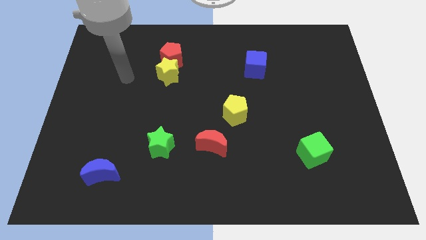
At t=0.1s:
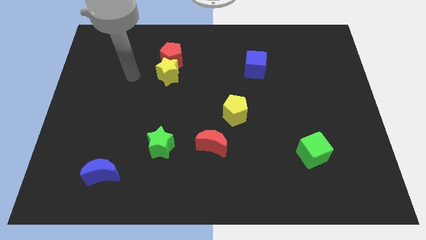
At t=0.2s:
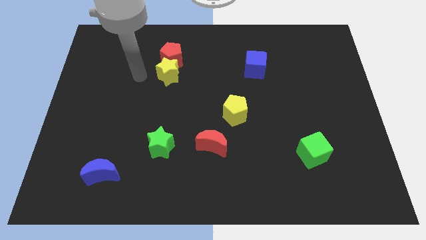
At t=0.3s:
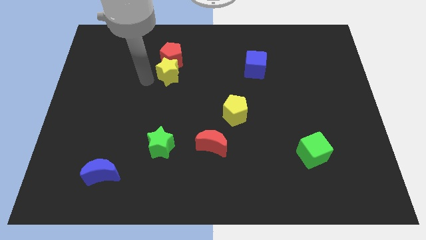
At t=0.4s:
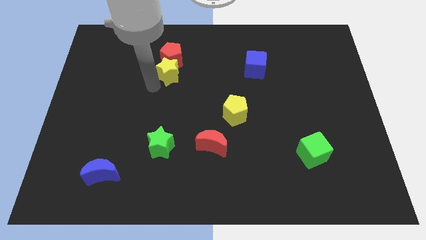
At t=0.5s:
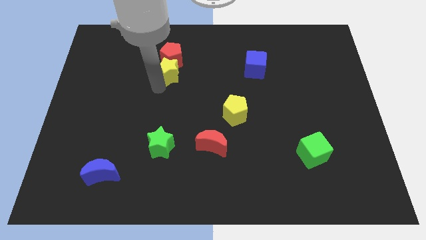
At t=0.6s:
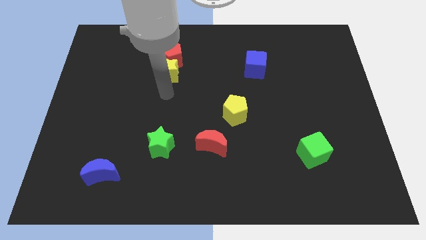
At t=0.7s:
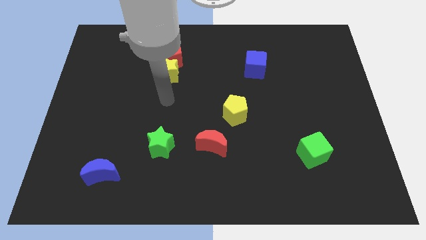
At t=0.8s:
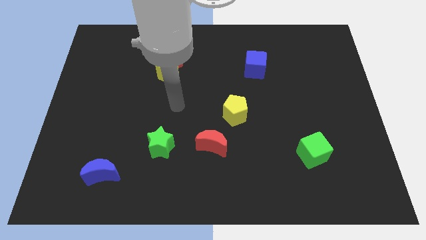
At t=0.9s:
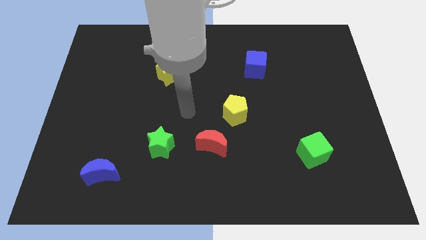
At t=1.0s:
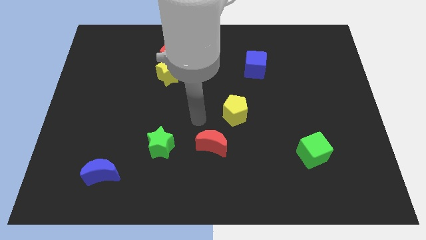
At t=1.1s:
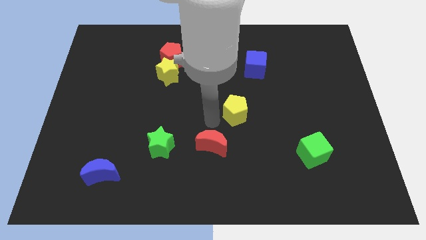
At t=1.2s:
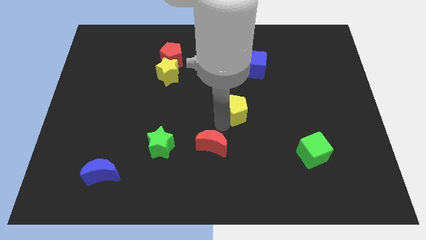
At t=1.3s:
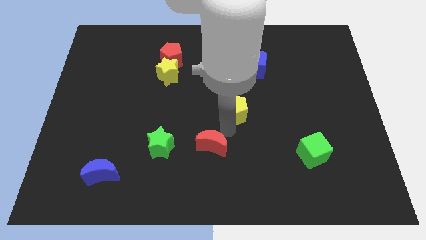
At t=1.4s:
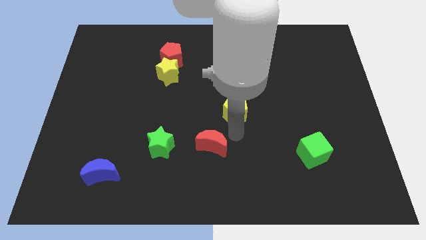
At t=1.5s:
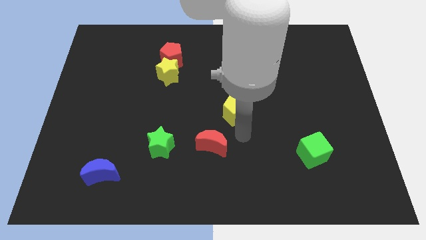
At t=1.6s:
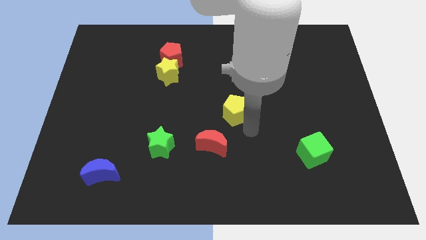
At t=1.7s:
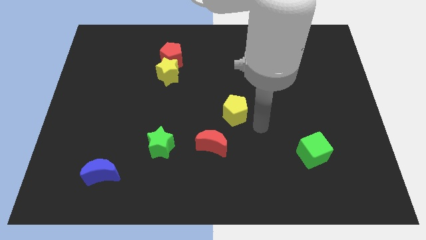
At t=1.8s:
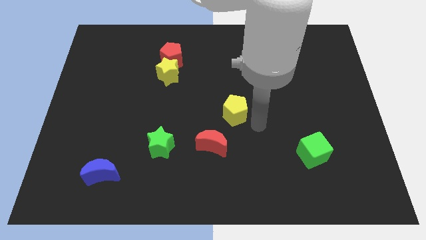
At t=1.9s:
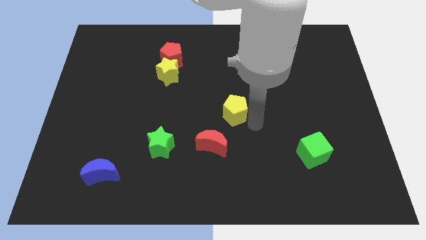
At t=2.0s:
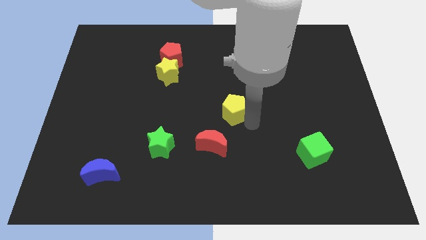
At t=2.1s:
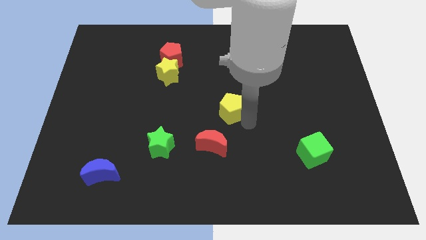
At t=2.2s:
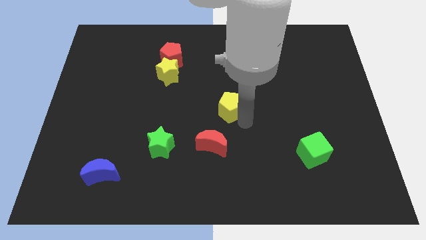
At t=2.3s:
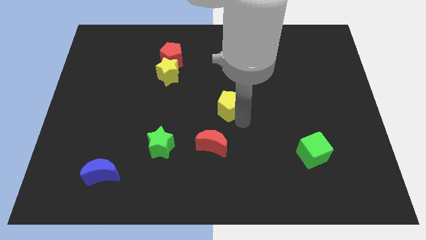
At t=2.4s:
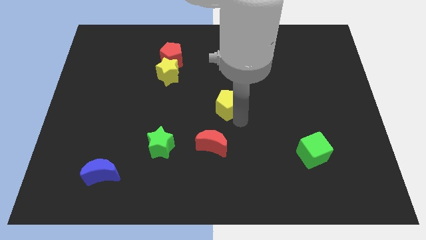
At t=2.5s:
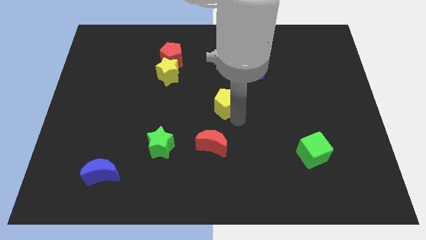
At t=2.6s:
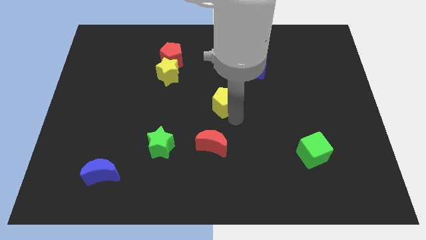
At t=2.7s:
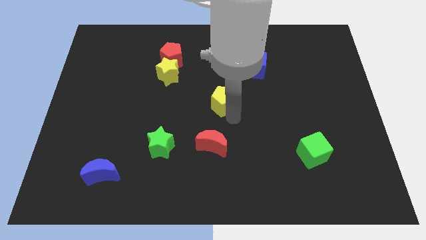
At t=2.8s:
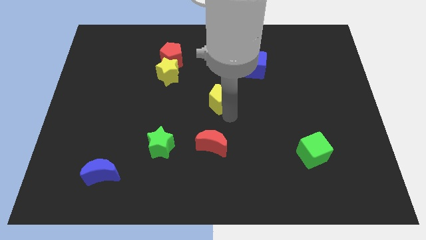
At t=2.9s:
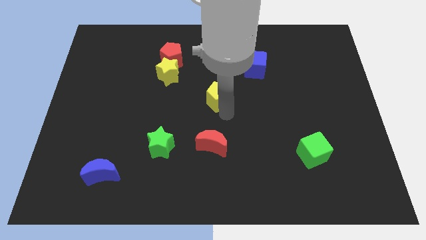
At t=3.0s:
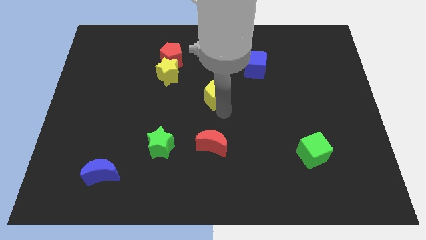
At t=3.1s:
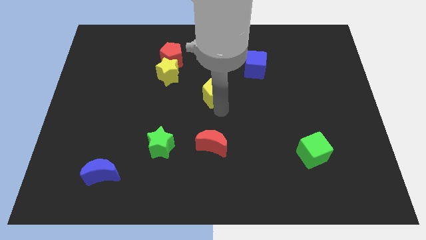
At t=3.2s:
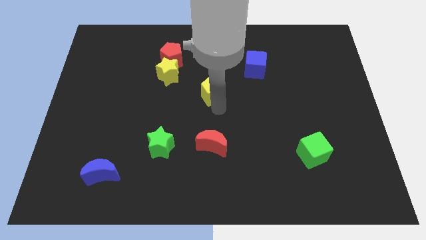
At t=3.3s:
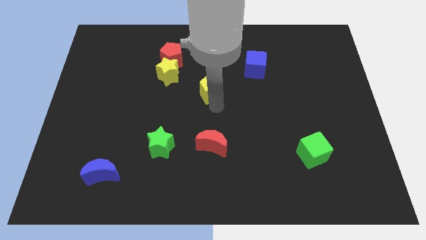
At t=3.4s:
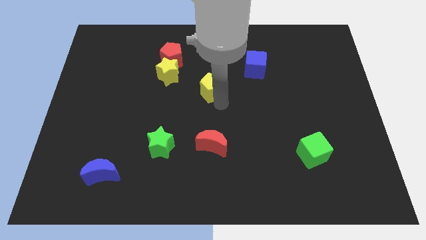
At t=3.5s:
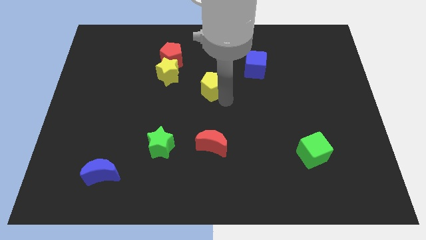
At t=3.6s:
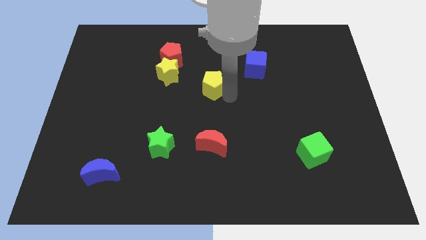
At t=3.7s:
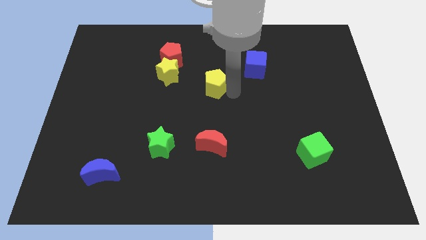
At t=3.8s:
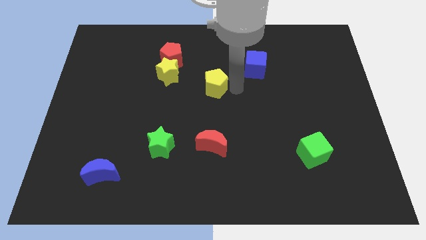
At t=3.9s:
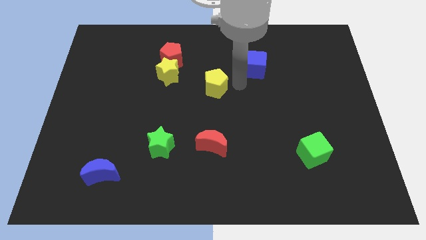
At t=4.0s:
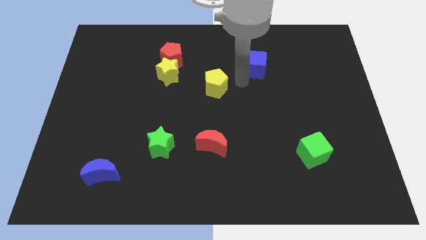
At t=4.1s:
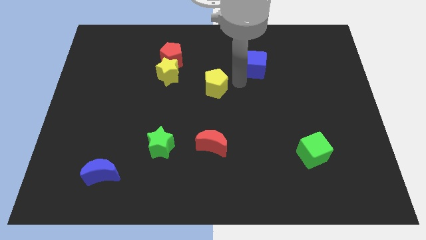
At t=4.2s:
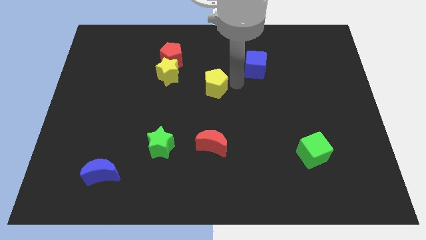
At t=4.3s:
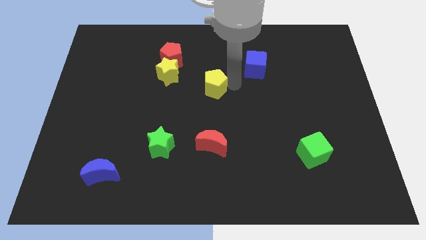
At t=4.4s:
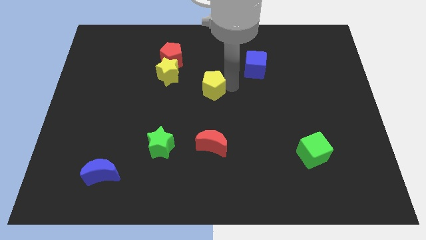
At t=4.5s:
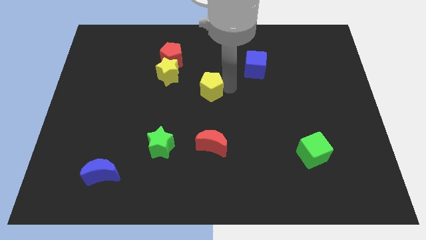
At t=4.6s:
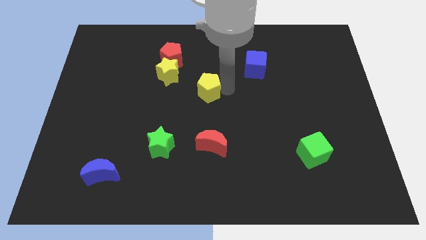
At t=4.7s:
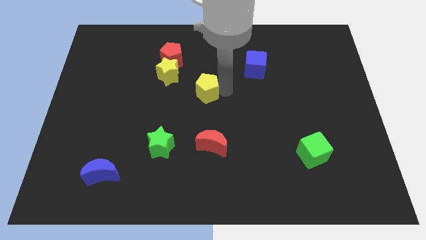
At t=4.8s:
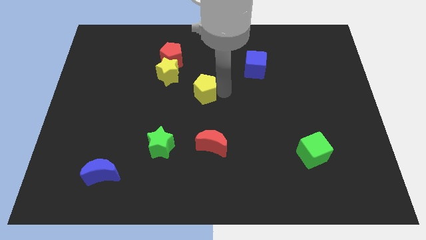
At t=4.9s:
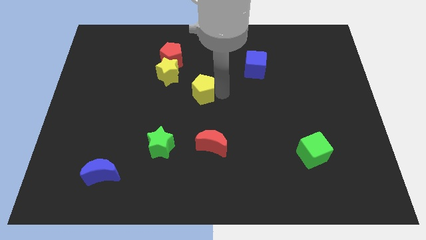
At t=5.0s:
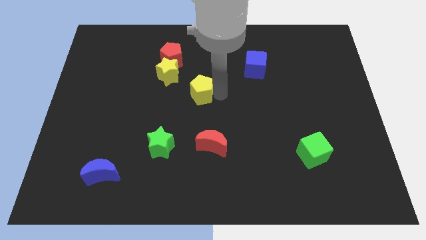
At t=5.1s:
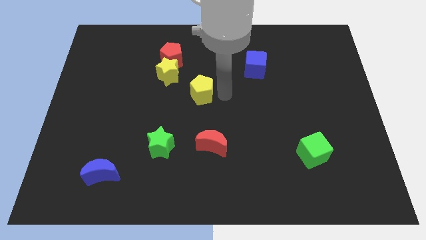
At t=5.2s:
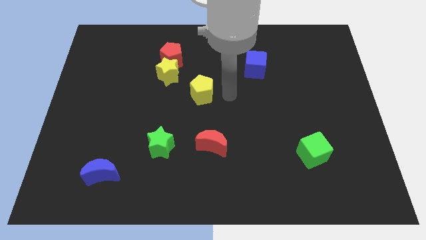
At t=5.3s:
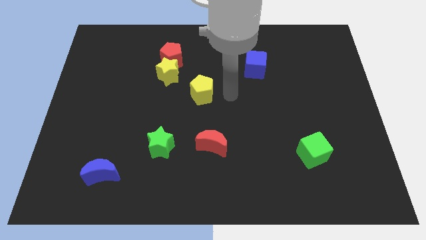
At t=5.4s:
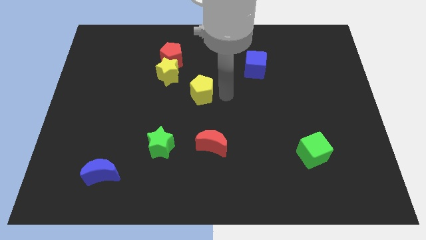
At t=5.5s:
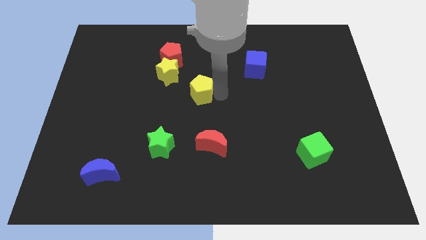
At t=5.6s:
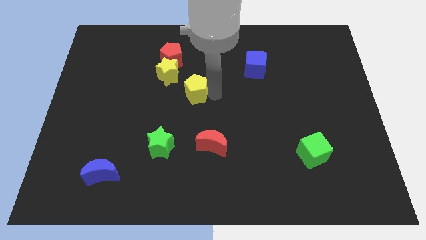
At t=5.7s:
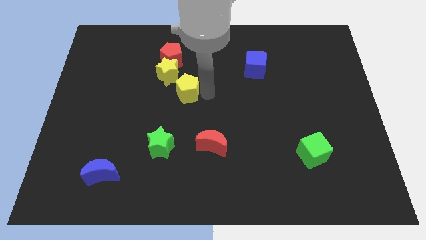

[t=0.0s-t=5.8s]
slide the yellow pentagon to the bottom of the red pentagon

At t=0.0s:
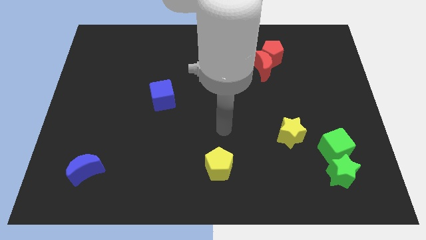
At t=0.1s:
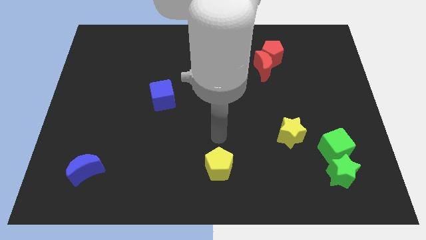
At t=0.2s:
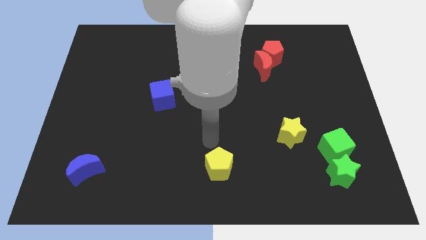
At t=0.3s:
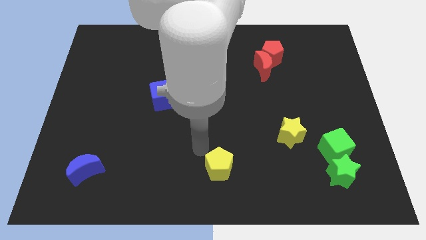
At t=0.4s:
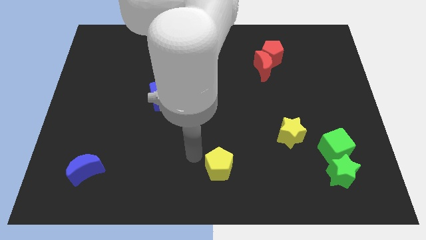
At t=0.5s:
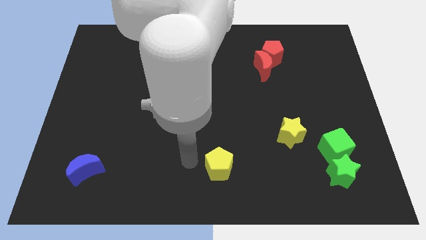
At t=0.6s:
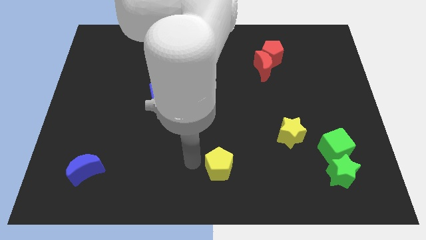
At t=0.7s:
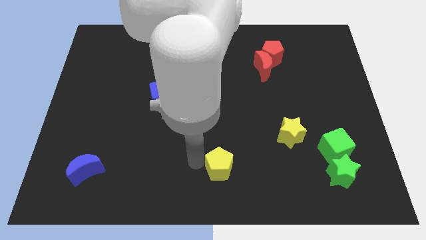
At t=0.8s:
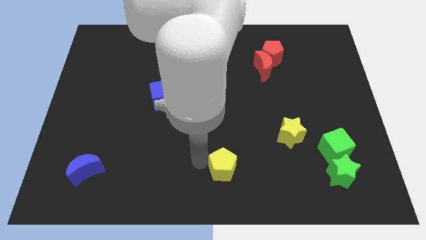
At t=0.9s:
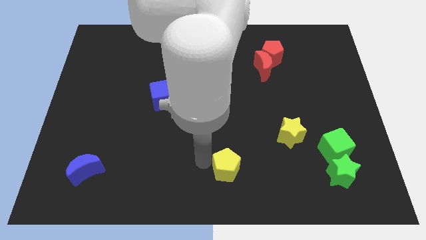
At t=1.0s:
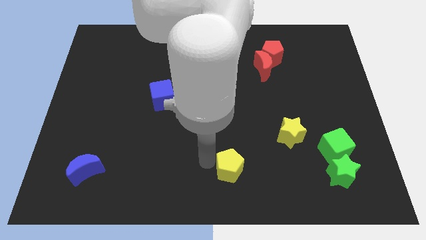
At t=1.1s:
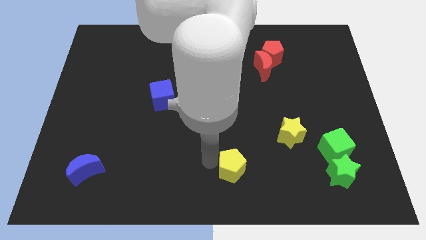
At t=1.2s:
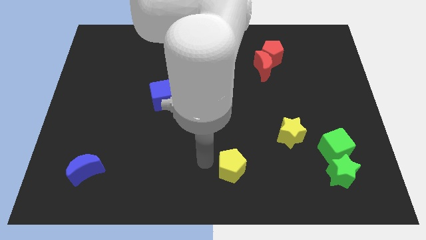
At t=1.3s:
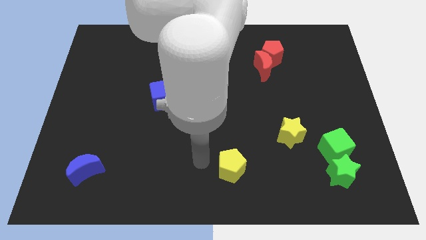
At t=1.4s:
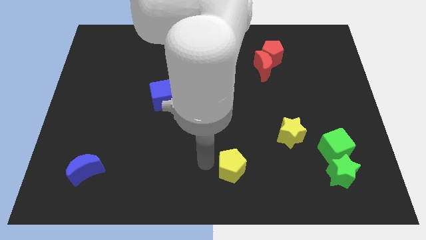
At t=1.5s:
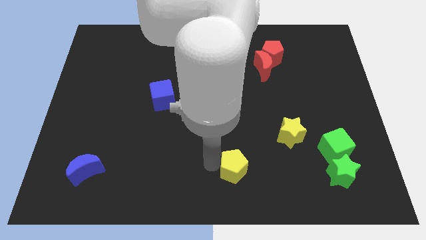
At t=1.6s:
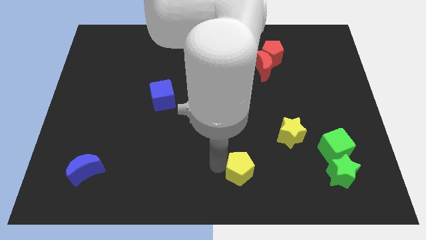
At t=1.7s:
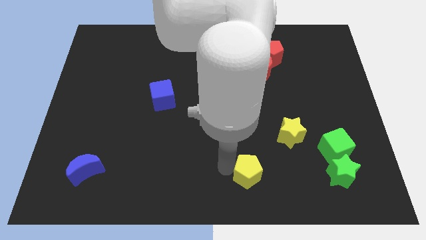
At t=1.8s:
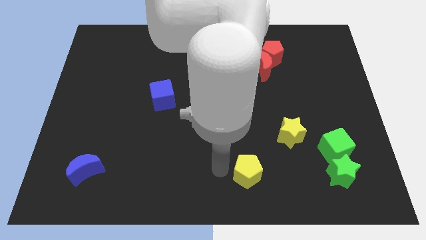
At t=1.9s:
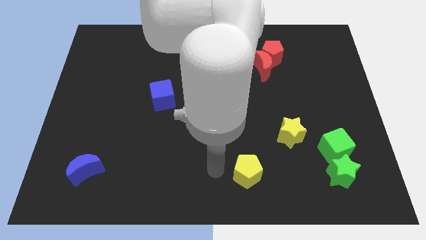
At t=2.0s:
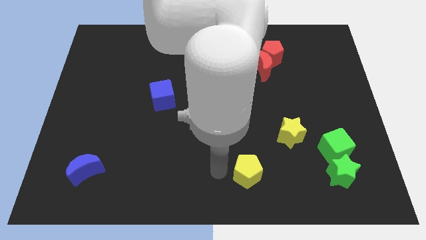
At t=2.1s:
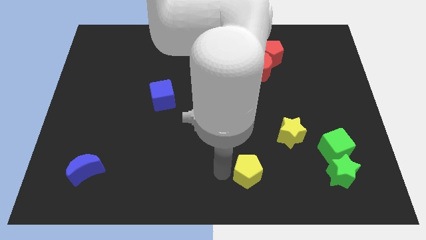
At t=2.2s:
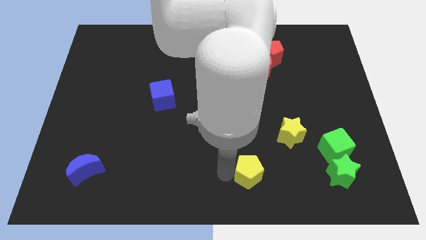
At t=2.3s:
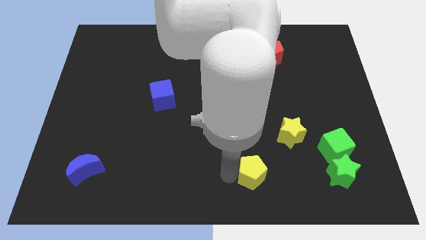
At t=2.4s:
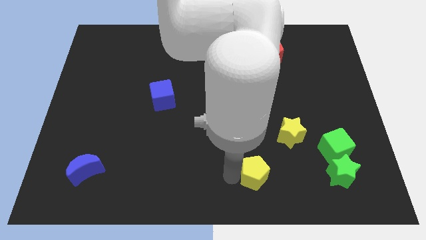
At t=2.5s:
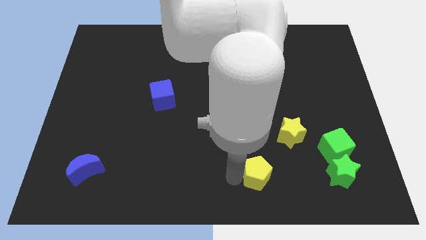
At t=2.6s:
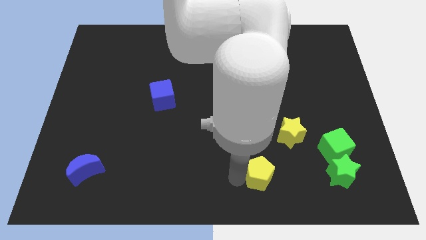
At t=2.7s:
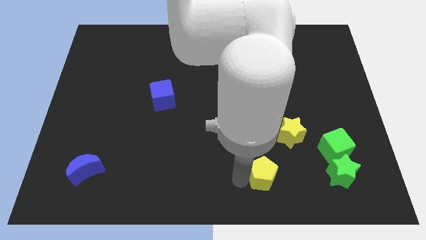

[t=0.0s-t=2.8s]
move the yellow pentagon left of the green star
